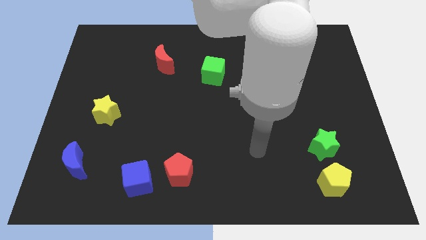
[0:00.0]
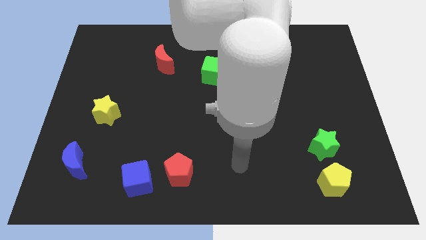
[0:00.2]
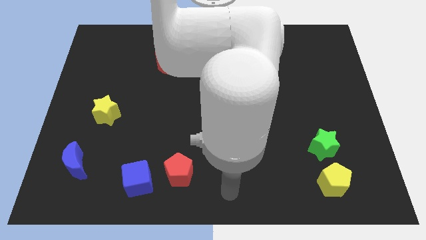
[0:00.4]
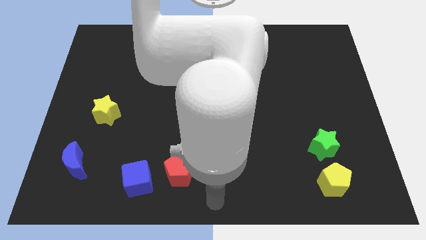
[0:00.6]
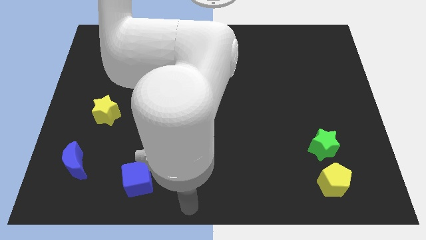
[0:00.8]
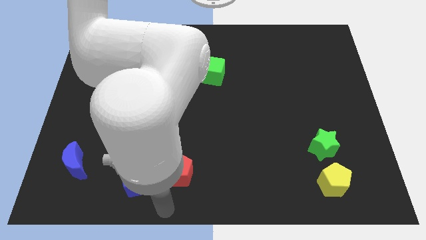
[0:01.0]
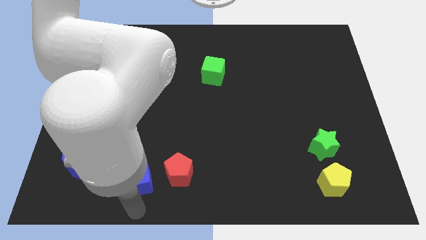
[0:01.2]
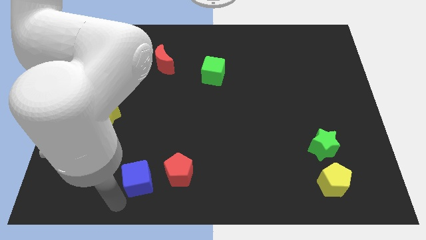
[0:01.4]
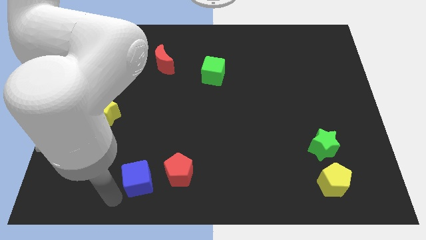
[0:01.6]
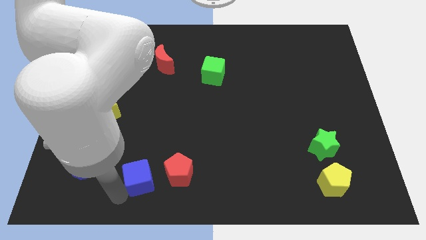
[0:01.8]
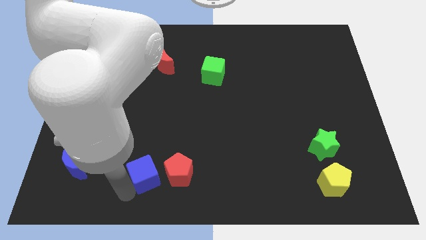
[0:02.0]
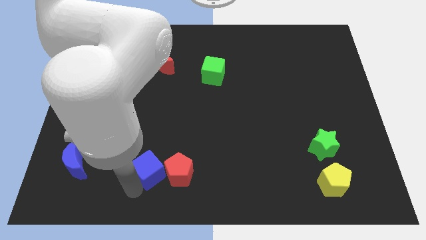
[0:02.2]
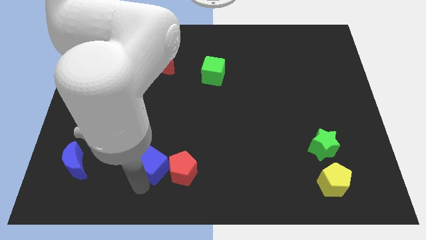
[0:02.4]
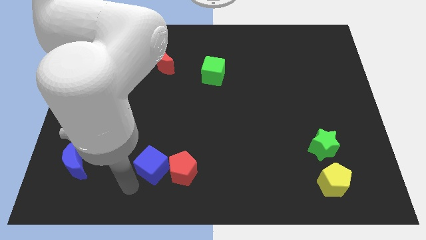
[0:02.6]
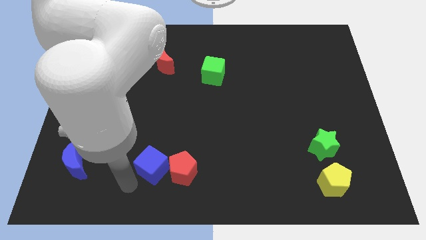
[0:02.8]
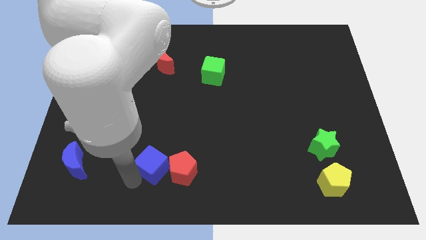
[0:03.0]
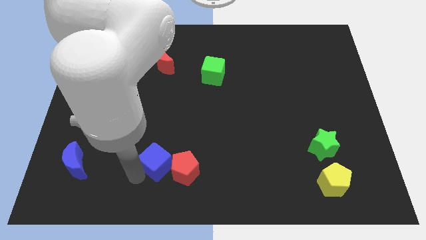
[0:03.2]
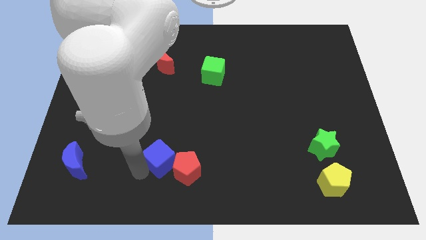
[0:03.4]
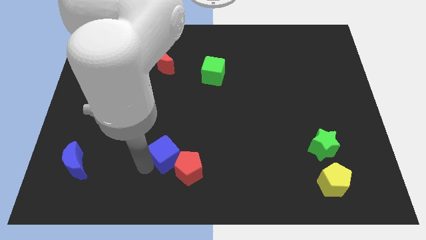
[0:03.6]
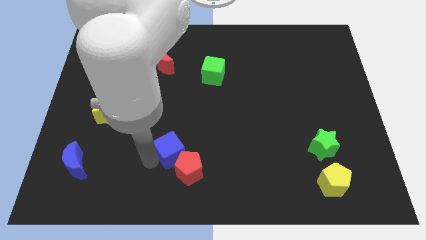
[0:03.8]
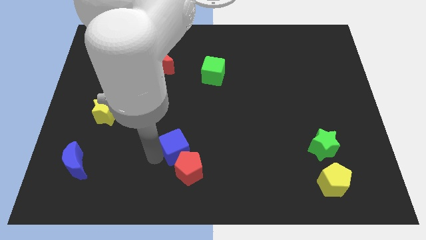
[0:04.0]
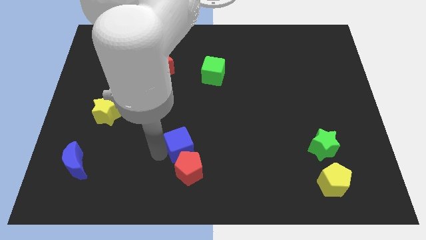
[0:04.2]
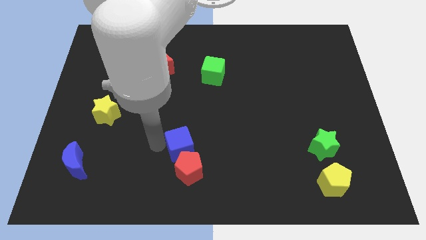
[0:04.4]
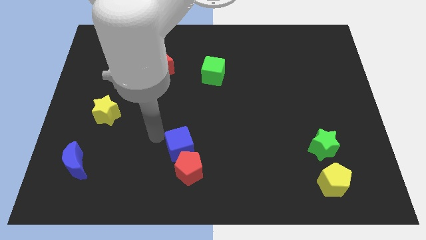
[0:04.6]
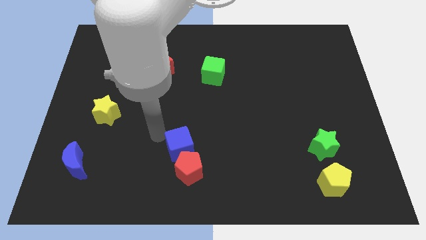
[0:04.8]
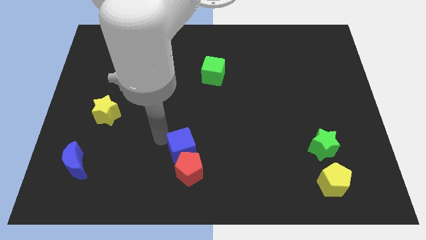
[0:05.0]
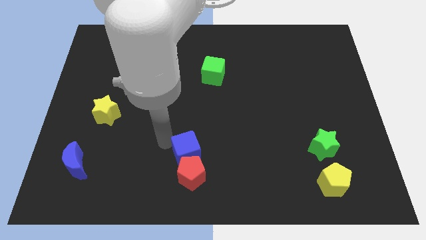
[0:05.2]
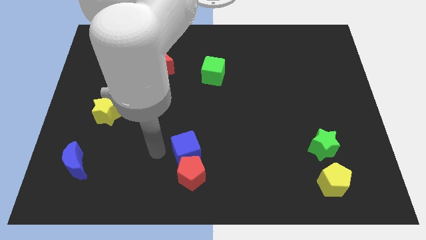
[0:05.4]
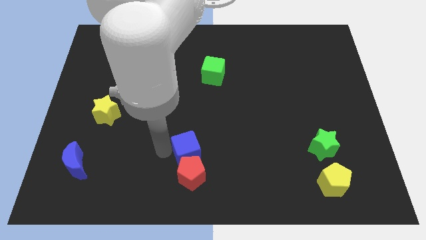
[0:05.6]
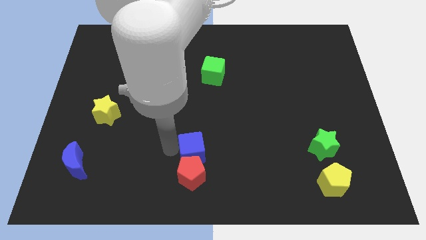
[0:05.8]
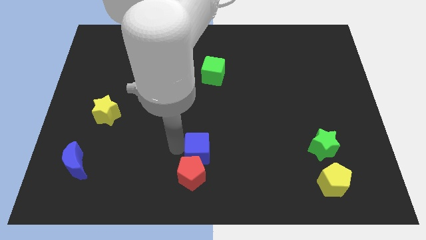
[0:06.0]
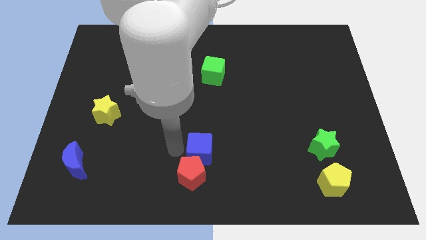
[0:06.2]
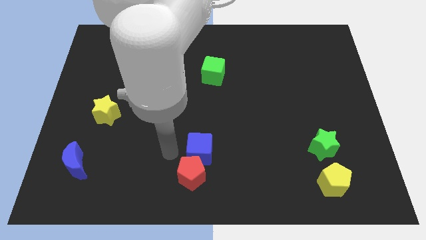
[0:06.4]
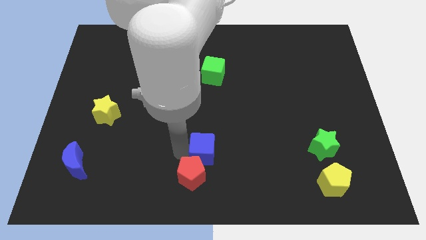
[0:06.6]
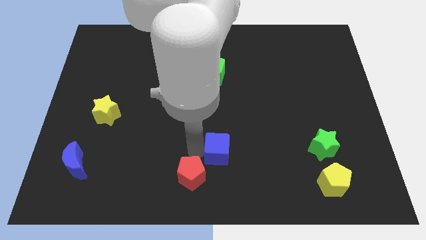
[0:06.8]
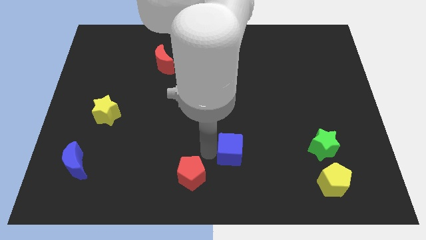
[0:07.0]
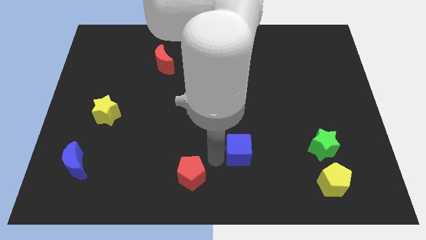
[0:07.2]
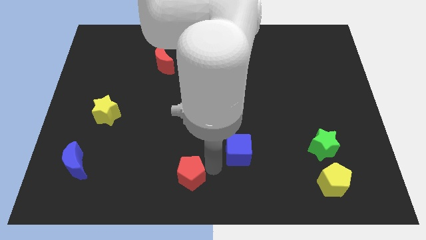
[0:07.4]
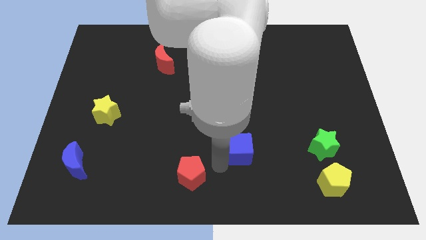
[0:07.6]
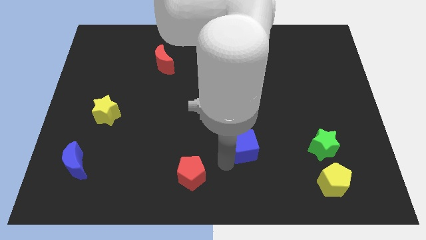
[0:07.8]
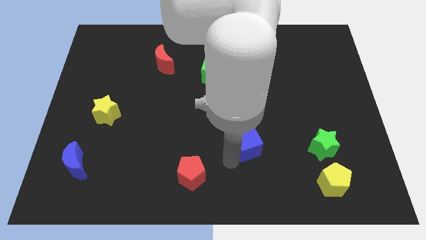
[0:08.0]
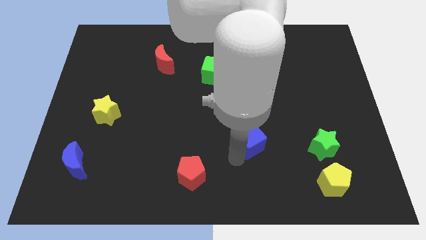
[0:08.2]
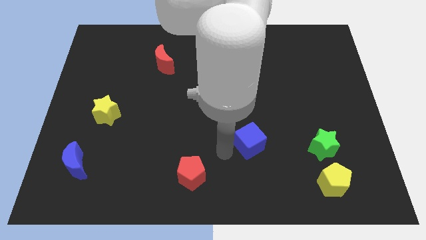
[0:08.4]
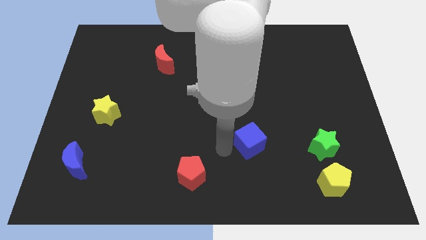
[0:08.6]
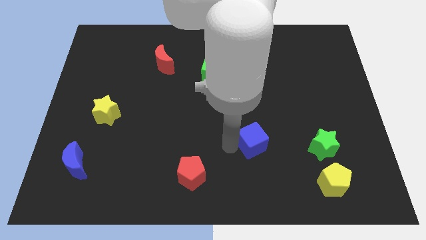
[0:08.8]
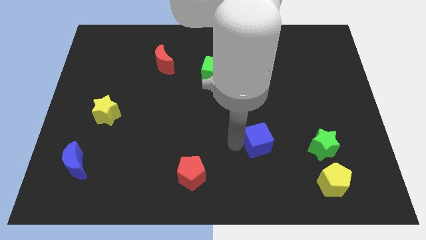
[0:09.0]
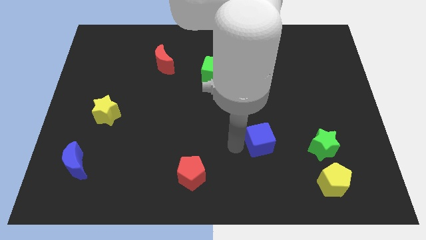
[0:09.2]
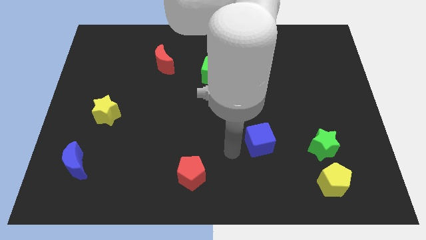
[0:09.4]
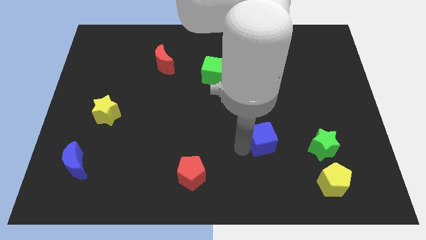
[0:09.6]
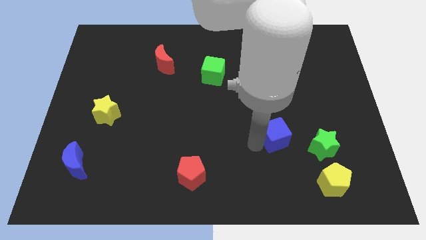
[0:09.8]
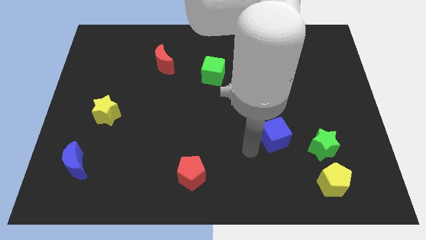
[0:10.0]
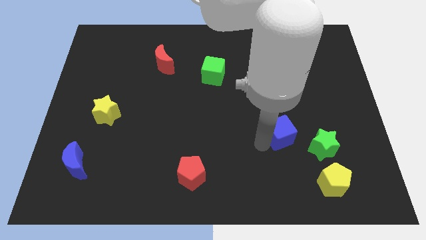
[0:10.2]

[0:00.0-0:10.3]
push the blue cube to the top left side of the green star

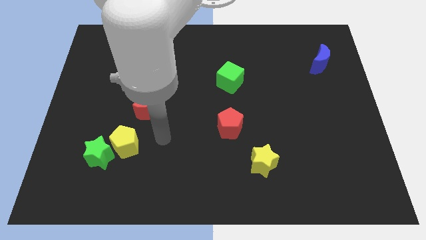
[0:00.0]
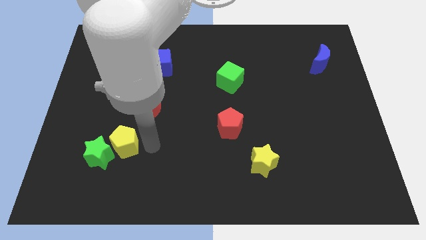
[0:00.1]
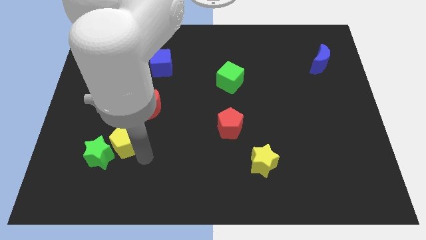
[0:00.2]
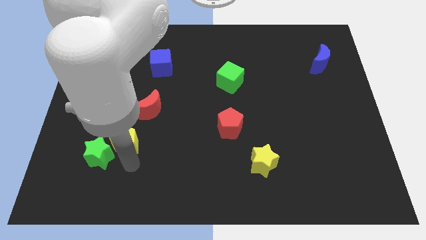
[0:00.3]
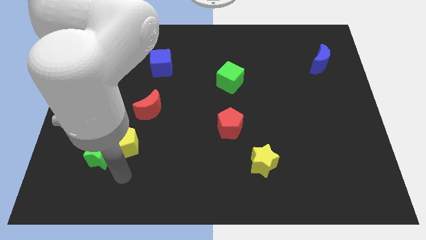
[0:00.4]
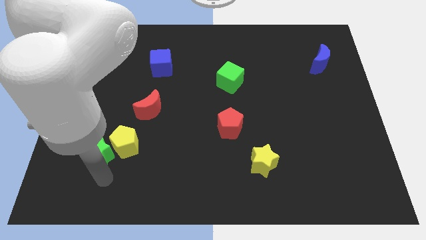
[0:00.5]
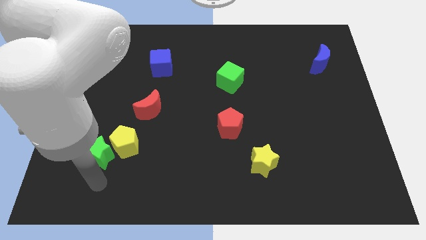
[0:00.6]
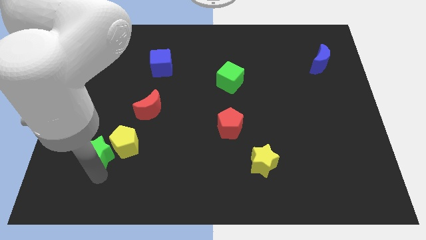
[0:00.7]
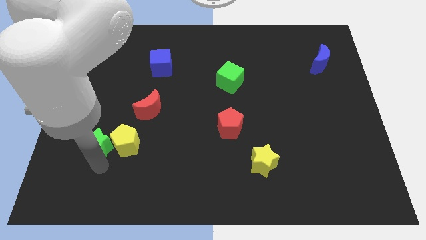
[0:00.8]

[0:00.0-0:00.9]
slide the green star diagonally up and to the left of the yellow pentagon
